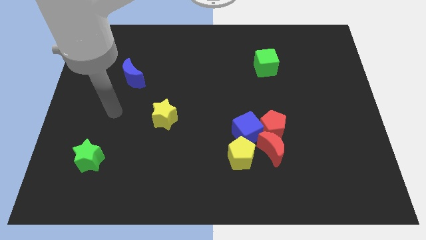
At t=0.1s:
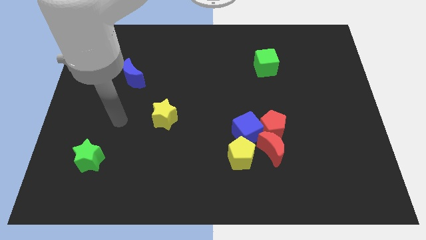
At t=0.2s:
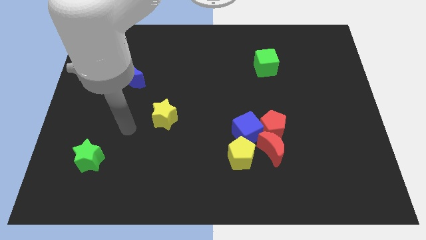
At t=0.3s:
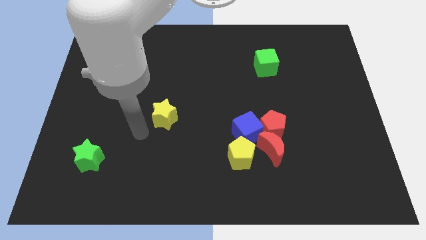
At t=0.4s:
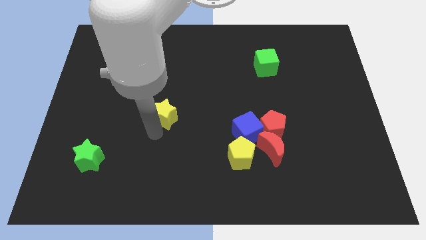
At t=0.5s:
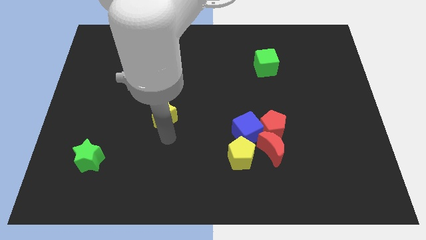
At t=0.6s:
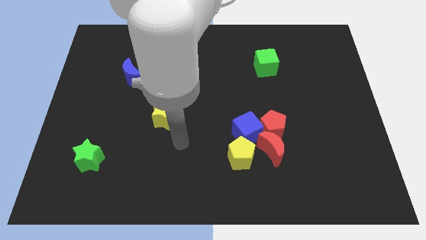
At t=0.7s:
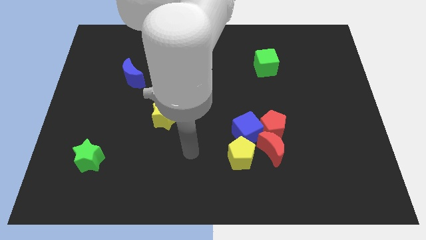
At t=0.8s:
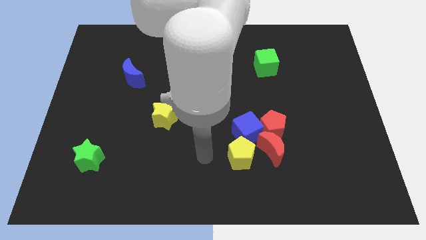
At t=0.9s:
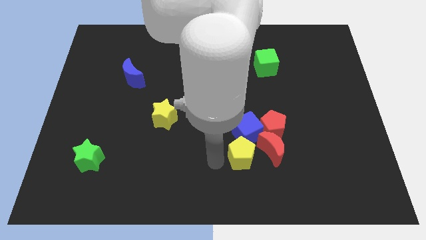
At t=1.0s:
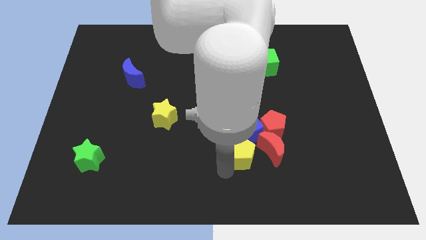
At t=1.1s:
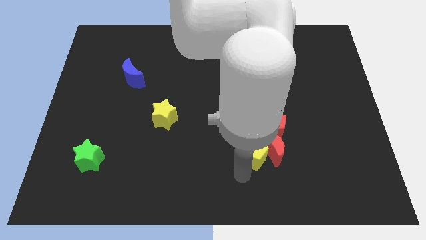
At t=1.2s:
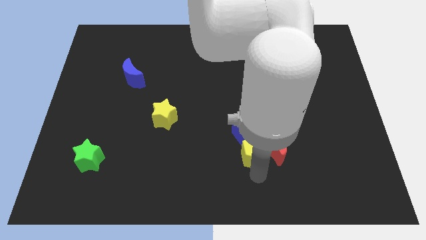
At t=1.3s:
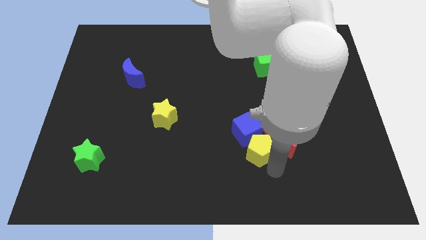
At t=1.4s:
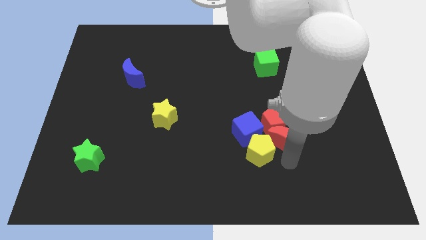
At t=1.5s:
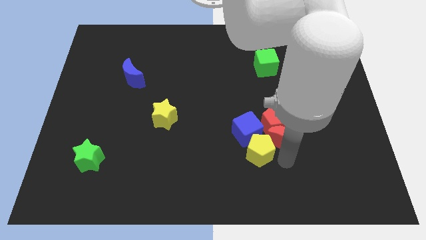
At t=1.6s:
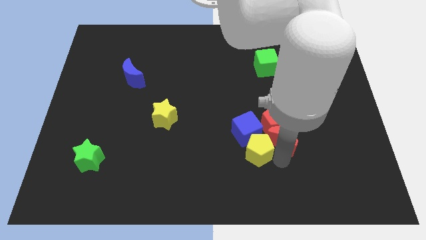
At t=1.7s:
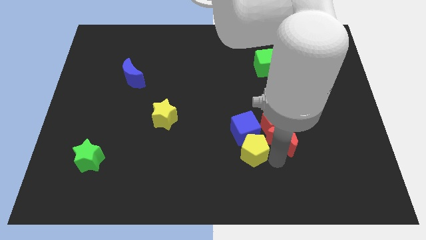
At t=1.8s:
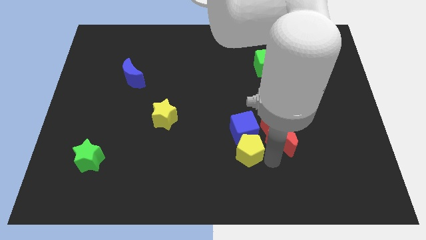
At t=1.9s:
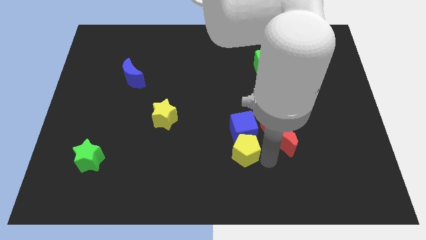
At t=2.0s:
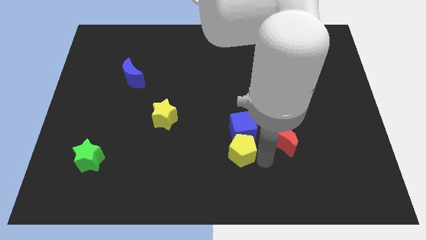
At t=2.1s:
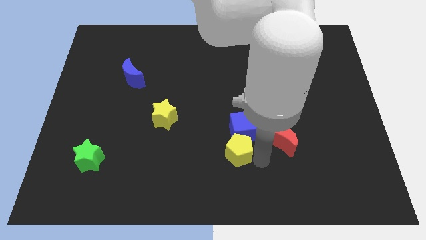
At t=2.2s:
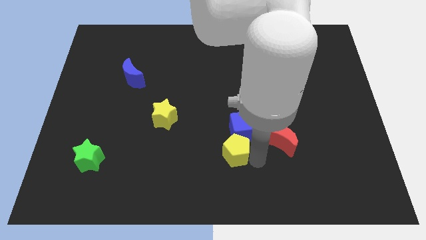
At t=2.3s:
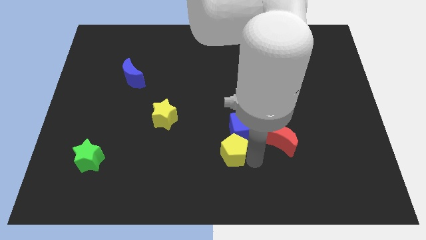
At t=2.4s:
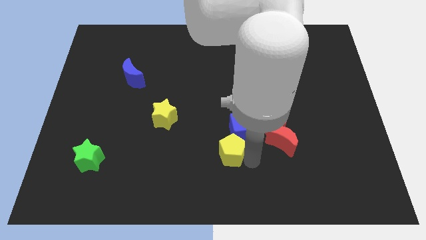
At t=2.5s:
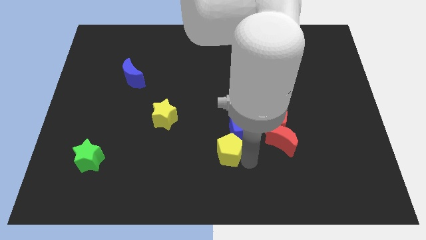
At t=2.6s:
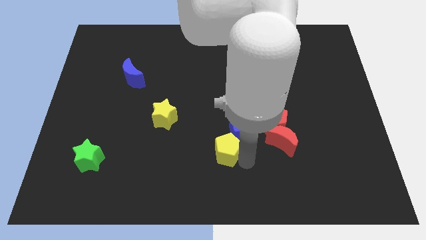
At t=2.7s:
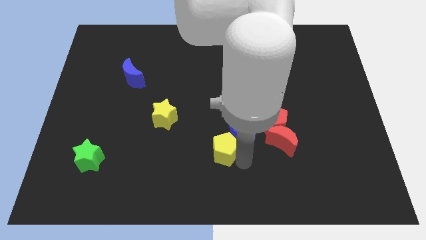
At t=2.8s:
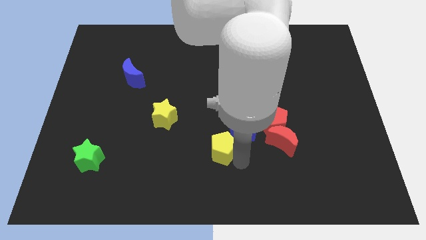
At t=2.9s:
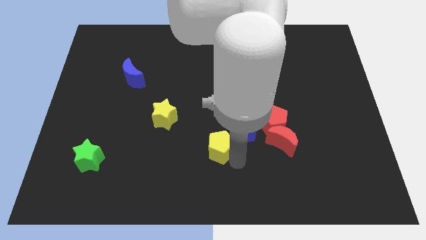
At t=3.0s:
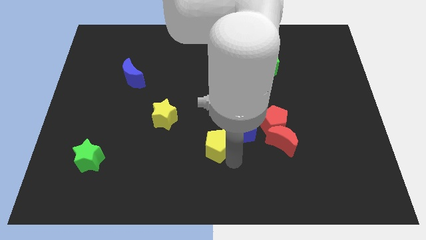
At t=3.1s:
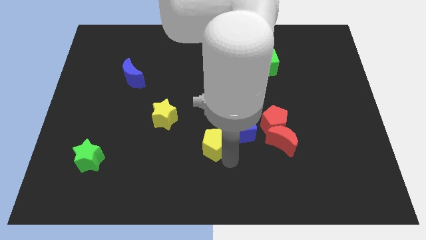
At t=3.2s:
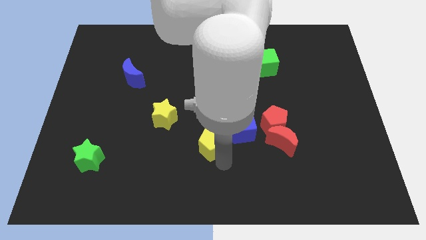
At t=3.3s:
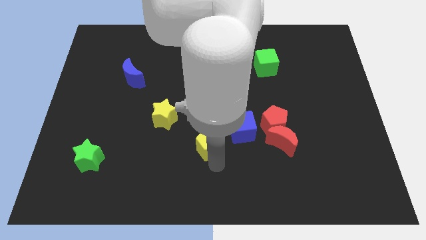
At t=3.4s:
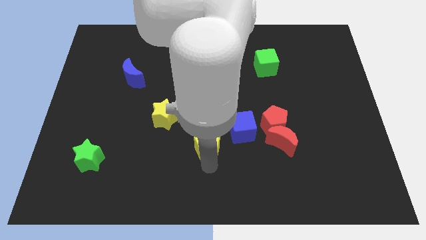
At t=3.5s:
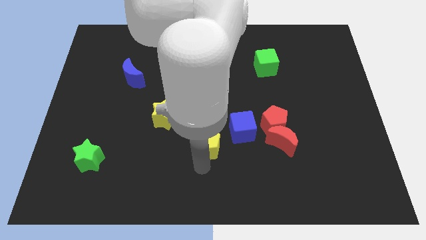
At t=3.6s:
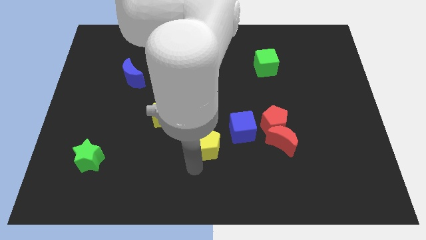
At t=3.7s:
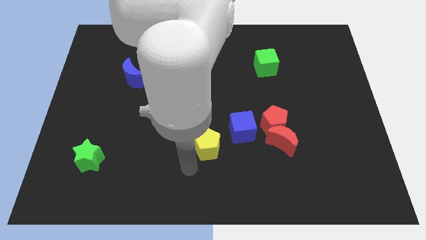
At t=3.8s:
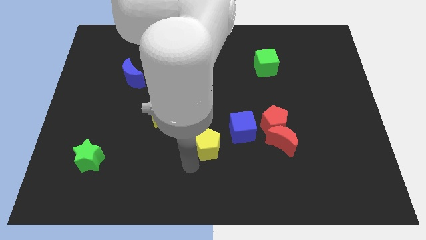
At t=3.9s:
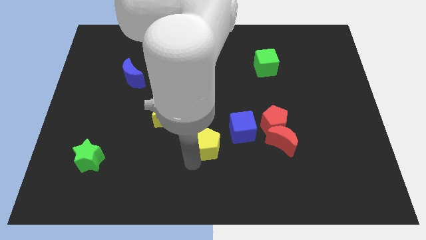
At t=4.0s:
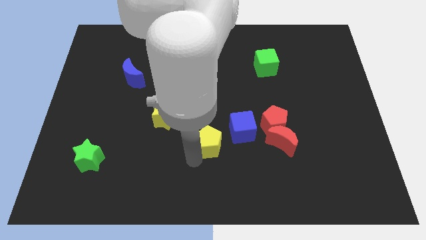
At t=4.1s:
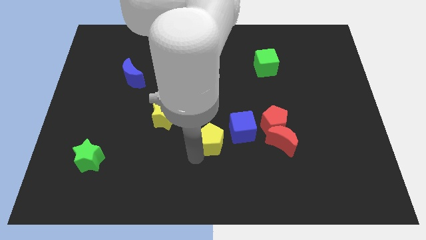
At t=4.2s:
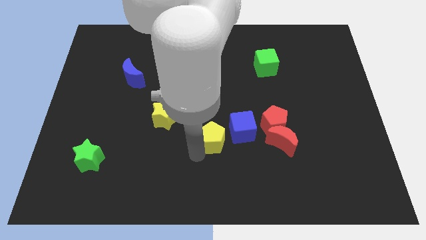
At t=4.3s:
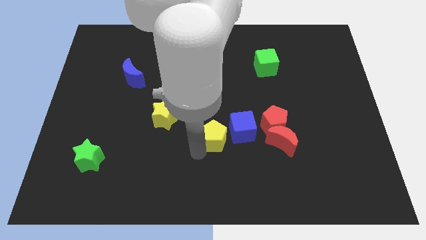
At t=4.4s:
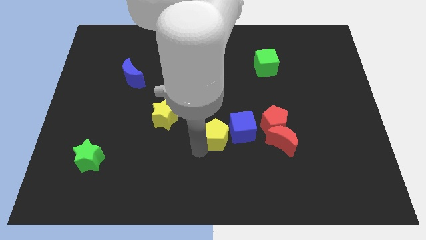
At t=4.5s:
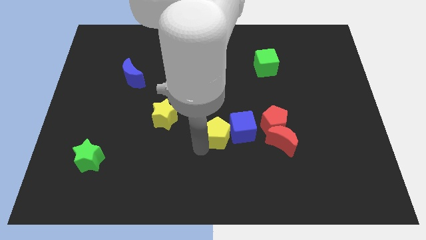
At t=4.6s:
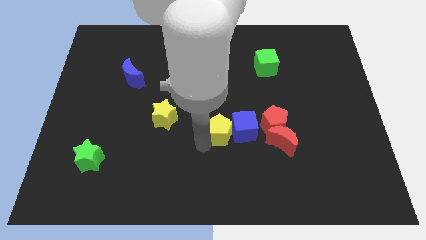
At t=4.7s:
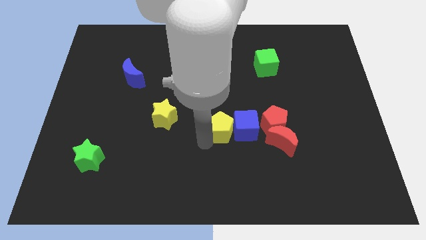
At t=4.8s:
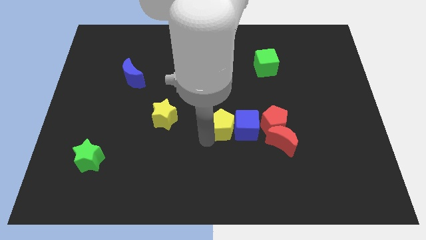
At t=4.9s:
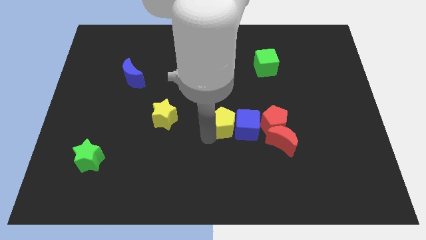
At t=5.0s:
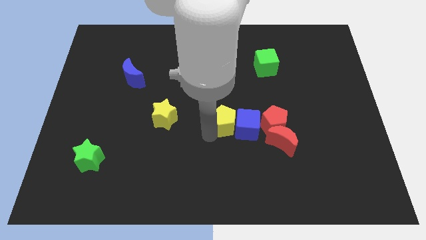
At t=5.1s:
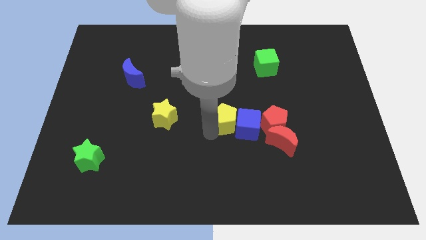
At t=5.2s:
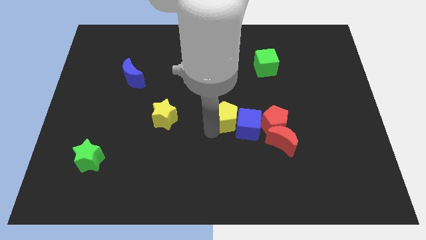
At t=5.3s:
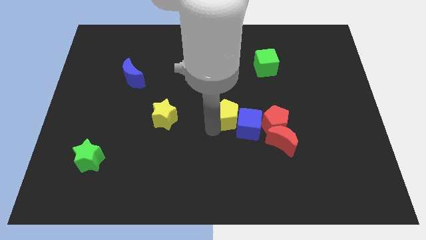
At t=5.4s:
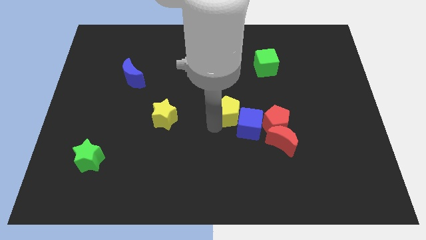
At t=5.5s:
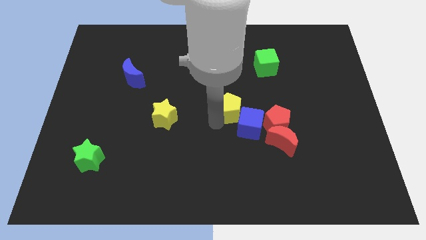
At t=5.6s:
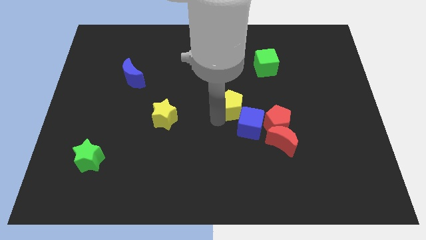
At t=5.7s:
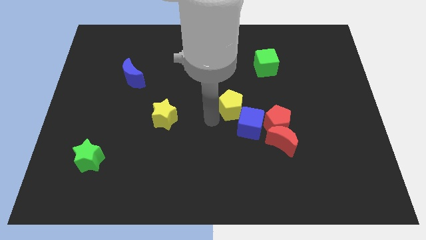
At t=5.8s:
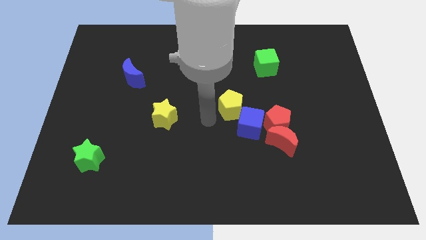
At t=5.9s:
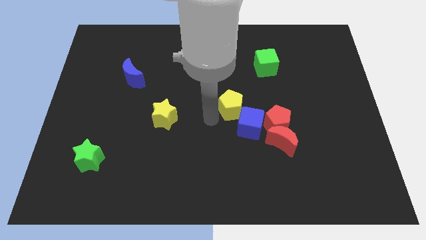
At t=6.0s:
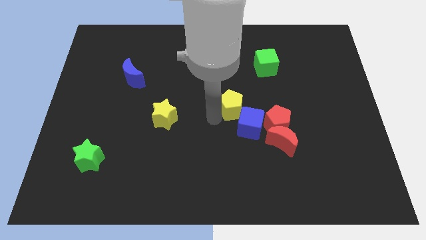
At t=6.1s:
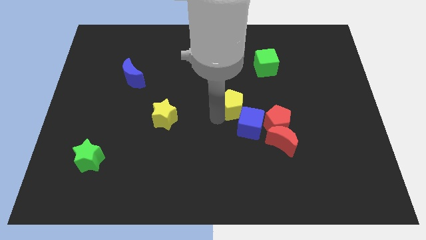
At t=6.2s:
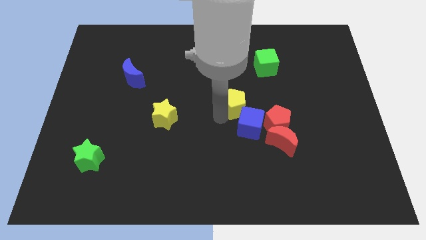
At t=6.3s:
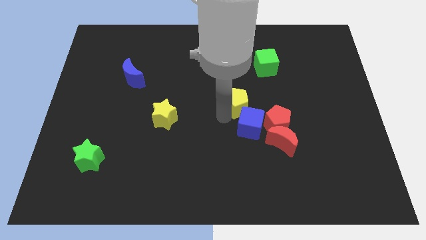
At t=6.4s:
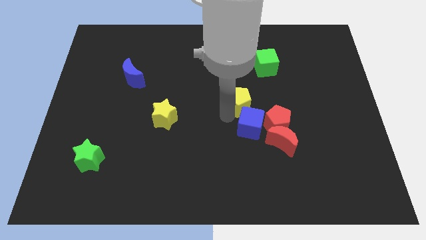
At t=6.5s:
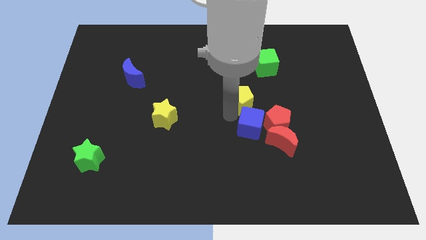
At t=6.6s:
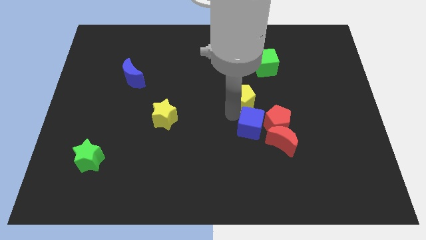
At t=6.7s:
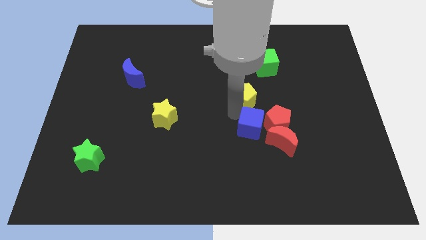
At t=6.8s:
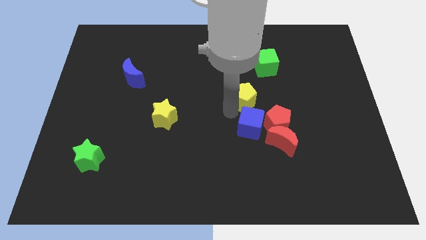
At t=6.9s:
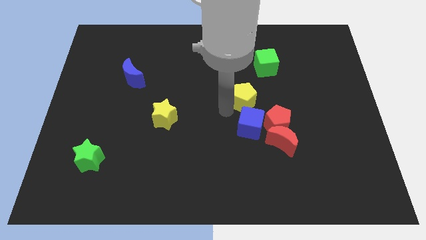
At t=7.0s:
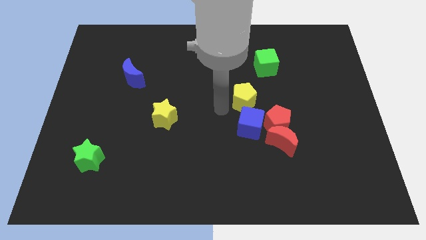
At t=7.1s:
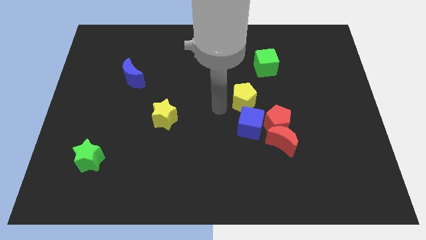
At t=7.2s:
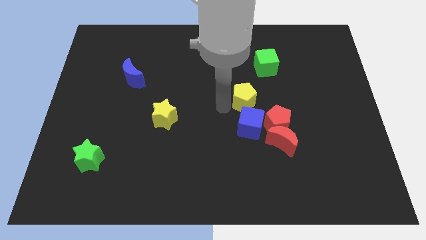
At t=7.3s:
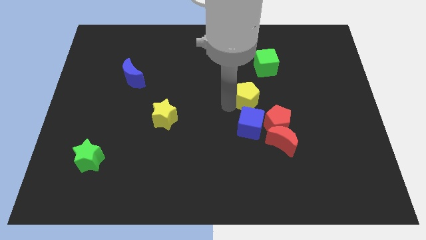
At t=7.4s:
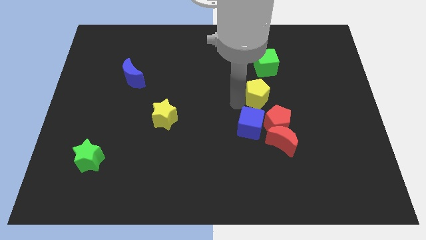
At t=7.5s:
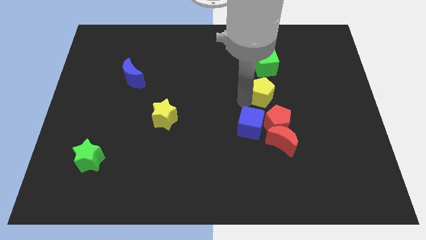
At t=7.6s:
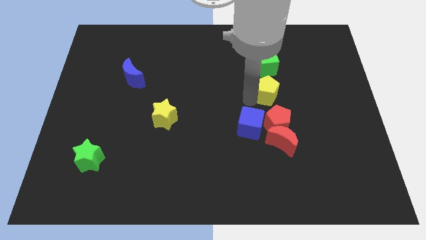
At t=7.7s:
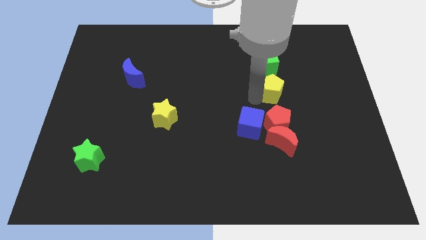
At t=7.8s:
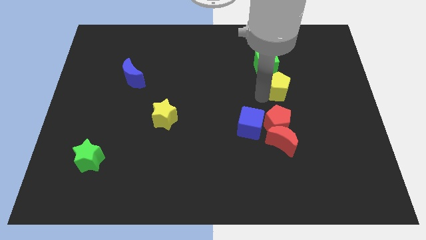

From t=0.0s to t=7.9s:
push the yellow pentagon to the bottom right side of the green cube
